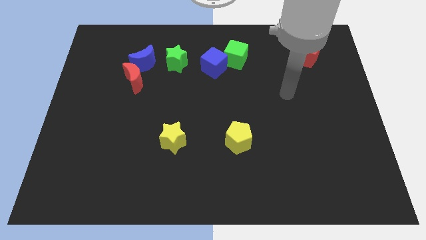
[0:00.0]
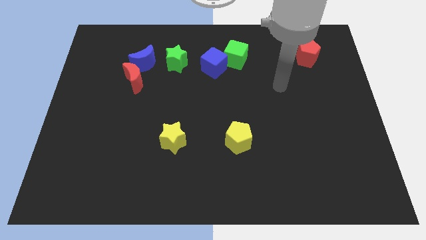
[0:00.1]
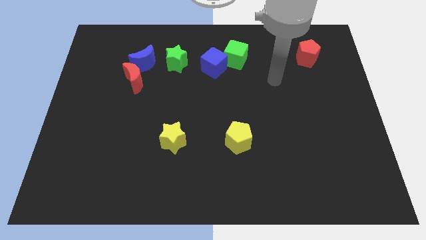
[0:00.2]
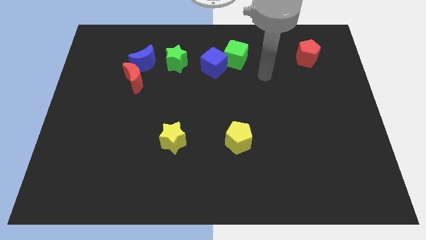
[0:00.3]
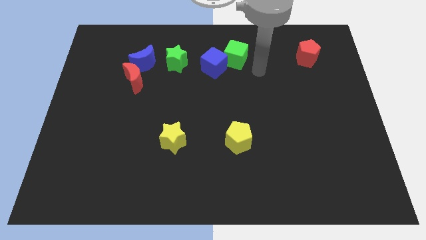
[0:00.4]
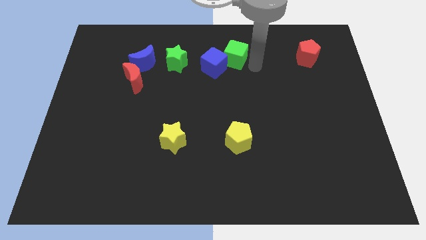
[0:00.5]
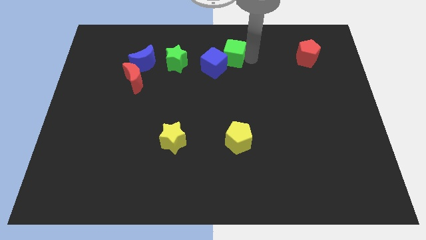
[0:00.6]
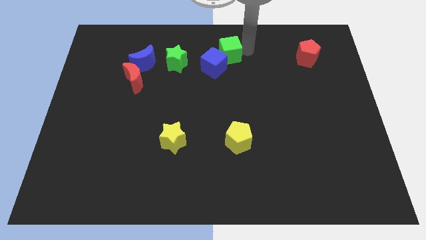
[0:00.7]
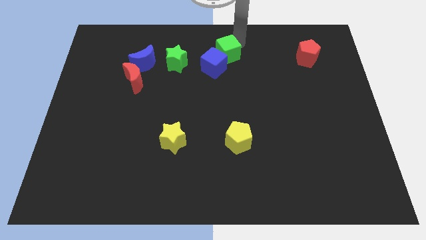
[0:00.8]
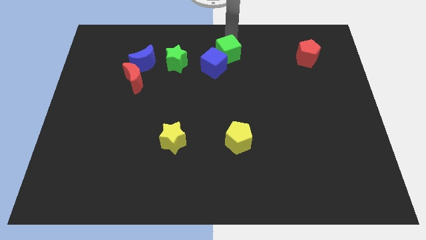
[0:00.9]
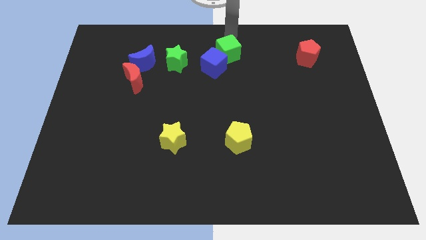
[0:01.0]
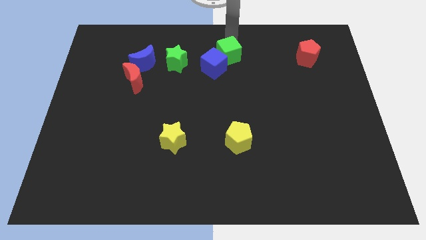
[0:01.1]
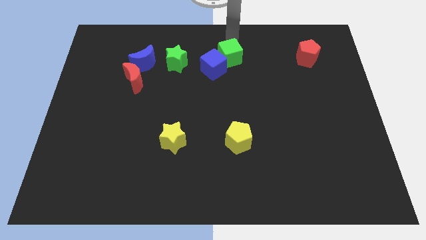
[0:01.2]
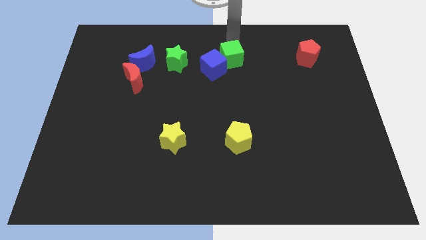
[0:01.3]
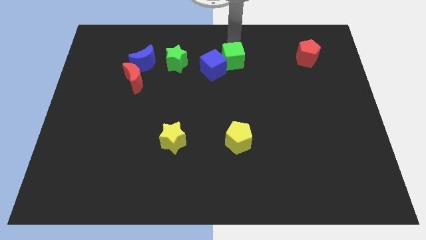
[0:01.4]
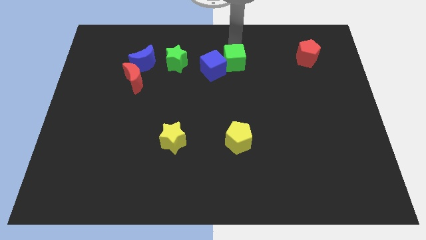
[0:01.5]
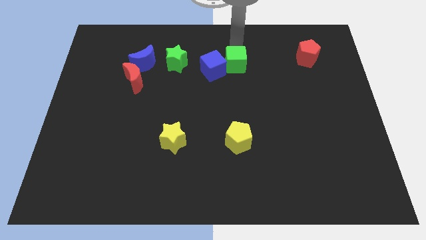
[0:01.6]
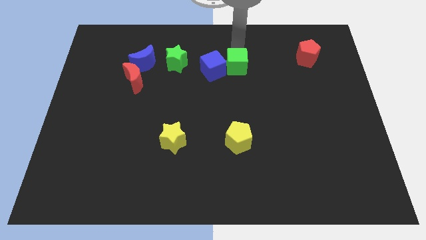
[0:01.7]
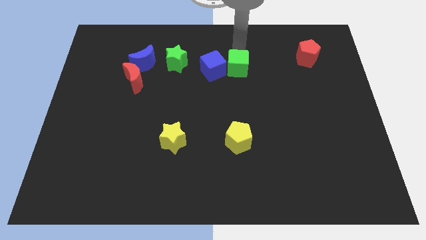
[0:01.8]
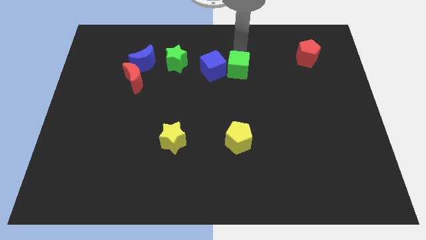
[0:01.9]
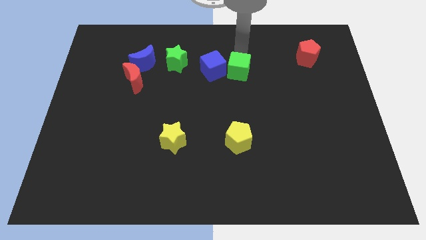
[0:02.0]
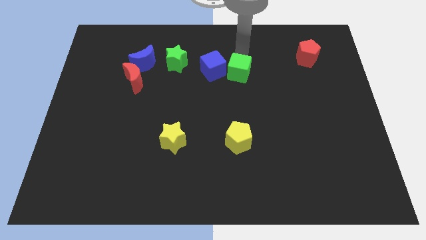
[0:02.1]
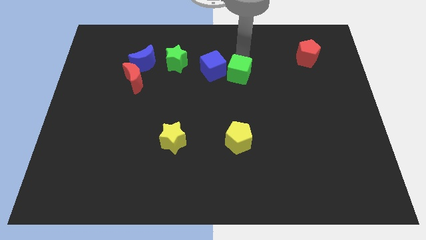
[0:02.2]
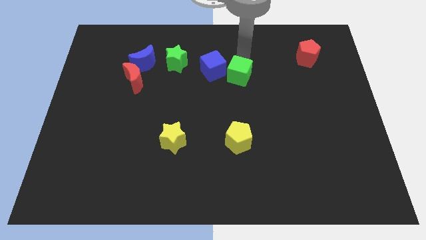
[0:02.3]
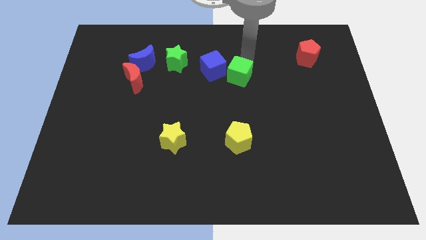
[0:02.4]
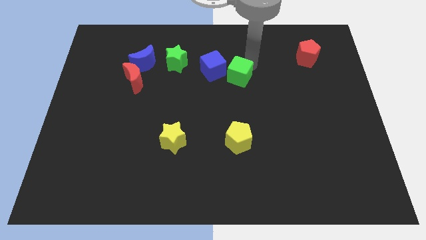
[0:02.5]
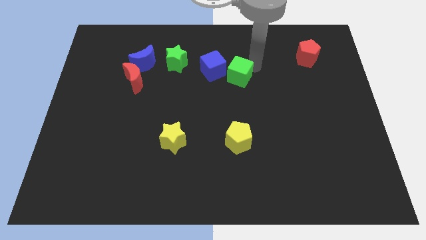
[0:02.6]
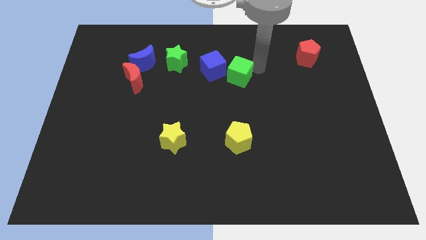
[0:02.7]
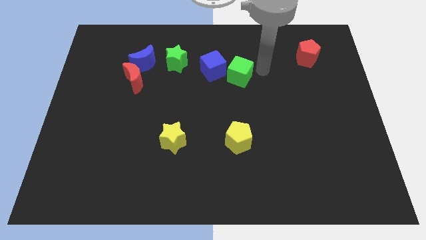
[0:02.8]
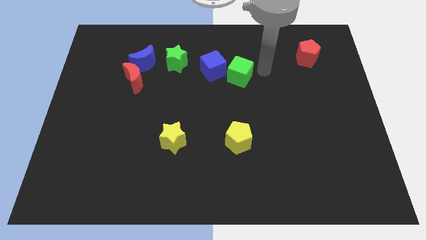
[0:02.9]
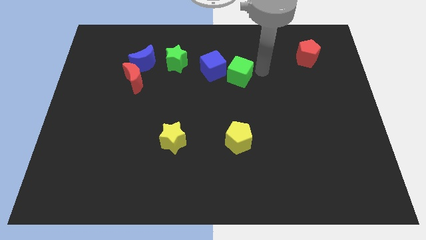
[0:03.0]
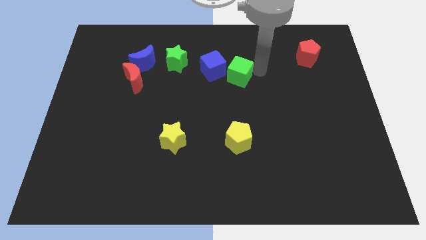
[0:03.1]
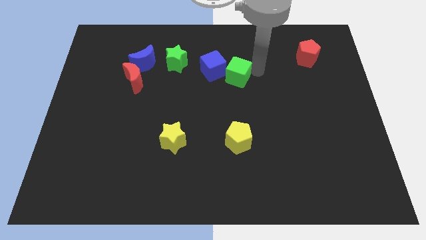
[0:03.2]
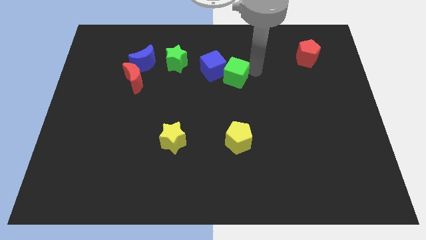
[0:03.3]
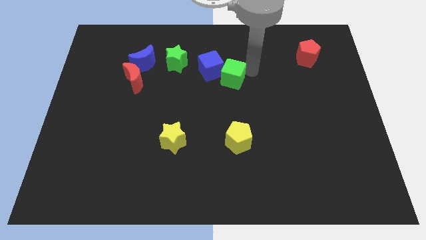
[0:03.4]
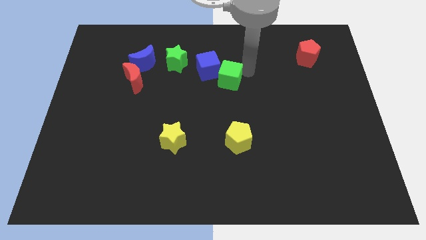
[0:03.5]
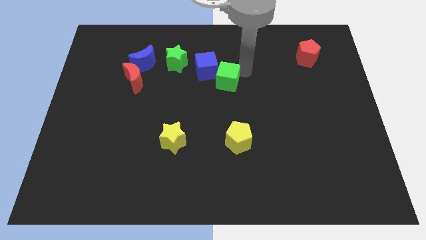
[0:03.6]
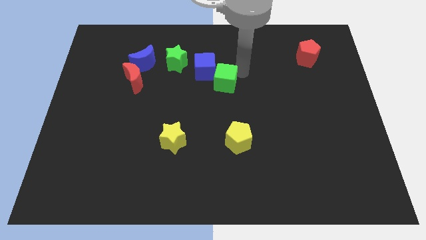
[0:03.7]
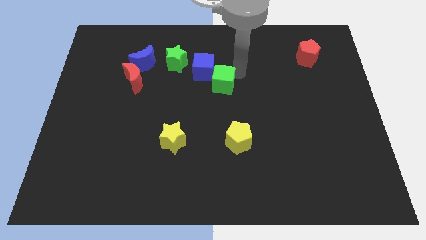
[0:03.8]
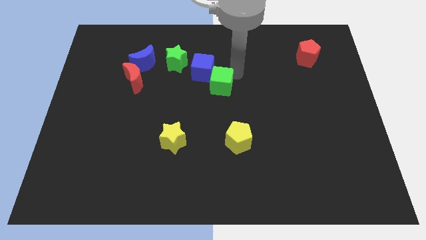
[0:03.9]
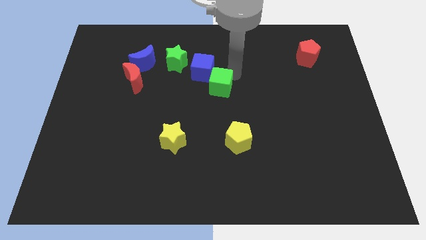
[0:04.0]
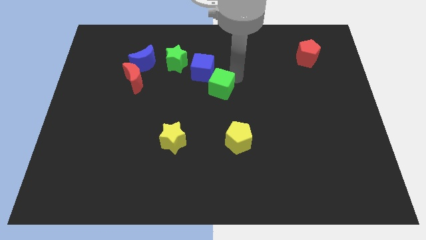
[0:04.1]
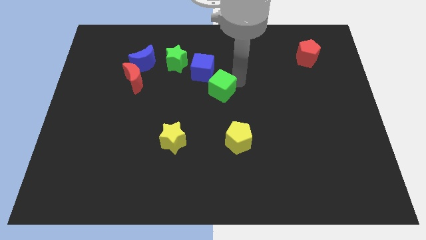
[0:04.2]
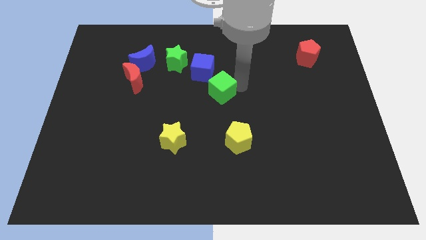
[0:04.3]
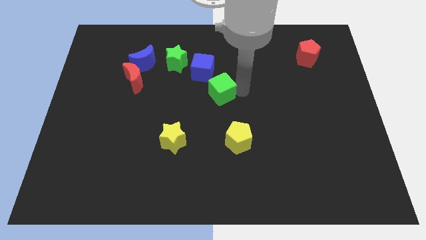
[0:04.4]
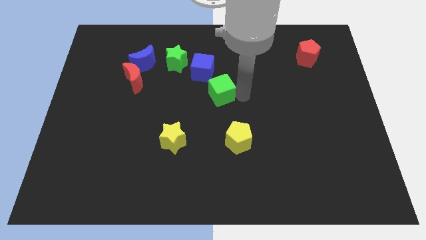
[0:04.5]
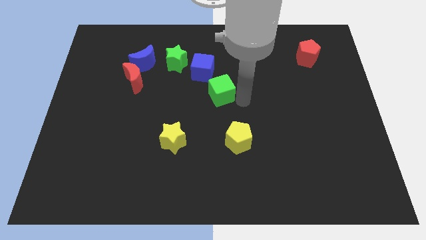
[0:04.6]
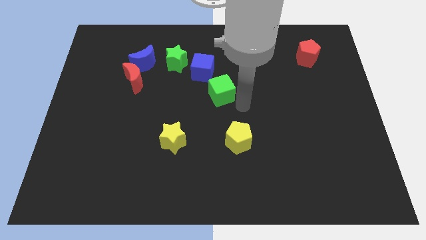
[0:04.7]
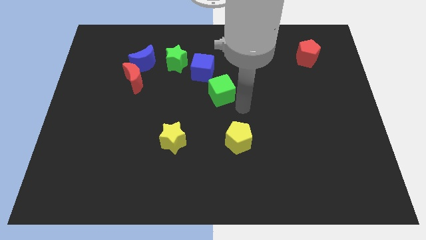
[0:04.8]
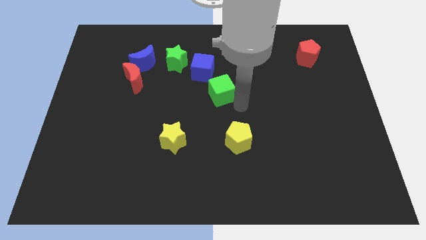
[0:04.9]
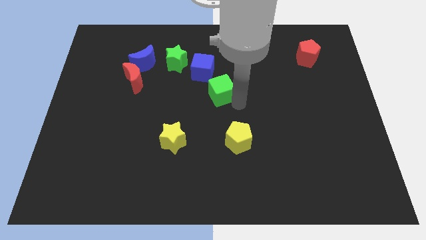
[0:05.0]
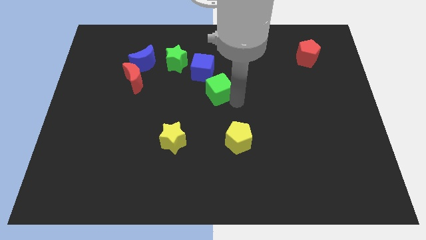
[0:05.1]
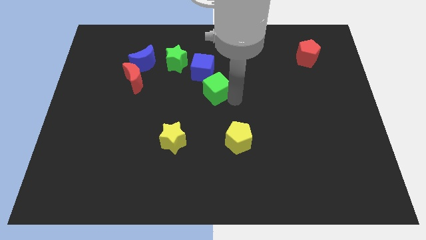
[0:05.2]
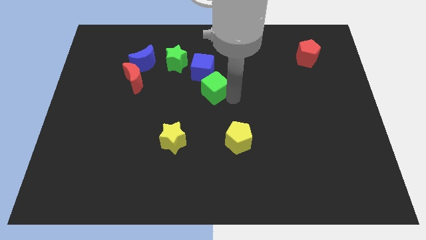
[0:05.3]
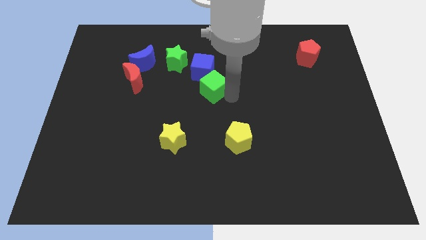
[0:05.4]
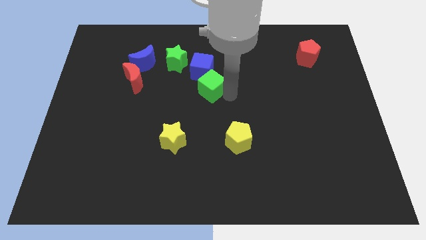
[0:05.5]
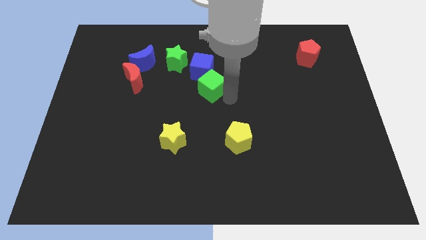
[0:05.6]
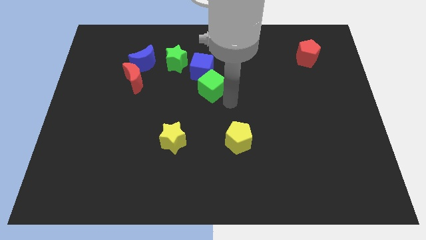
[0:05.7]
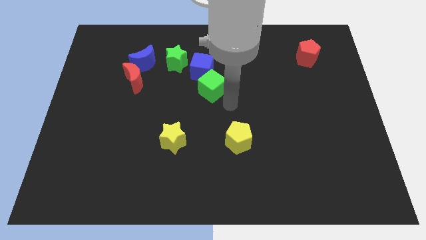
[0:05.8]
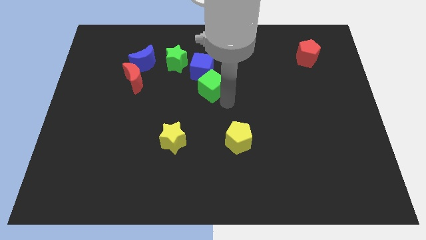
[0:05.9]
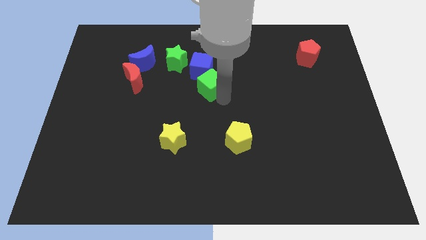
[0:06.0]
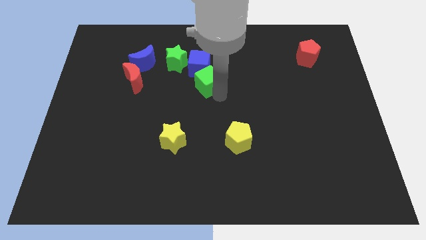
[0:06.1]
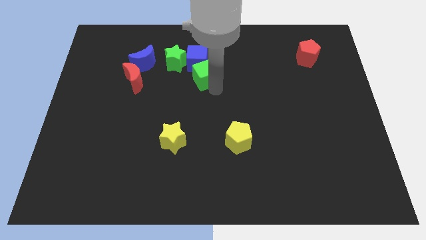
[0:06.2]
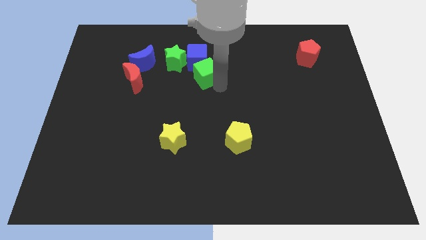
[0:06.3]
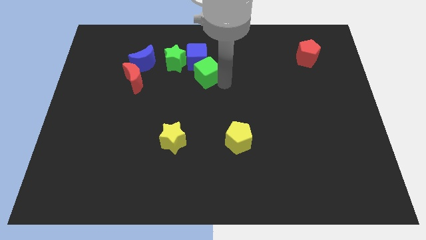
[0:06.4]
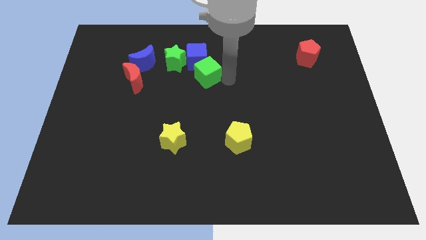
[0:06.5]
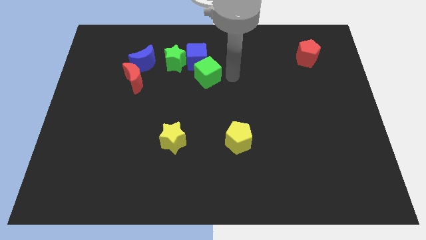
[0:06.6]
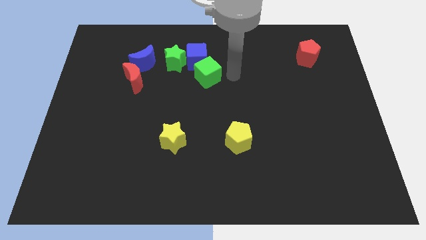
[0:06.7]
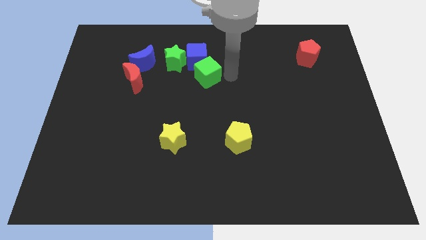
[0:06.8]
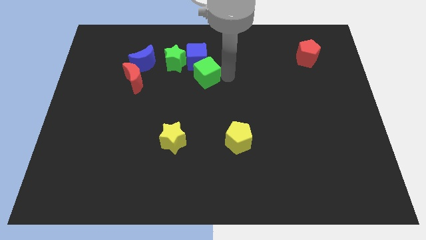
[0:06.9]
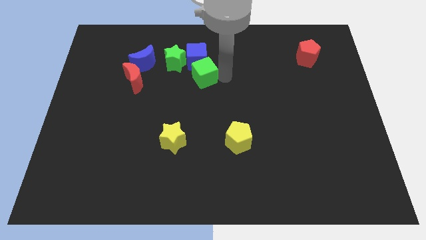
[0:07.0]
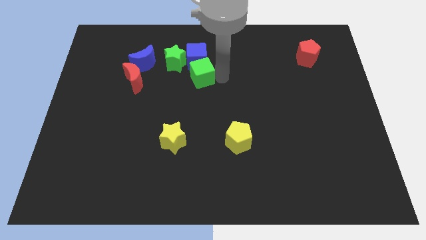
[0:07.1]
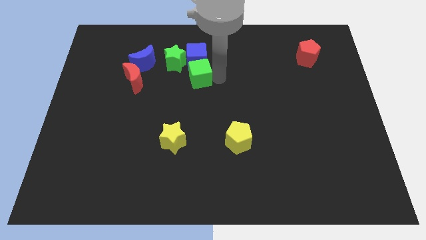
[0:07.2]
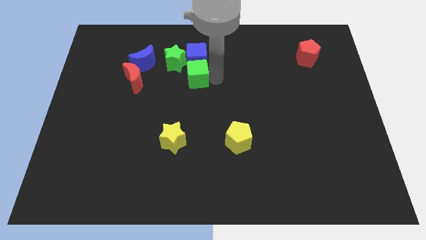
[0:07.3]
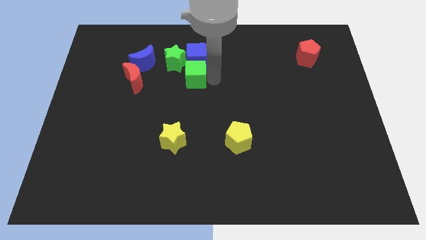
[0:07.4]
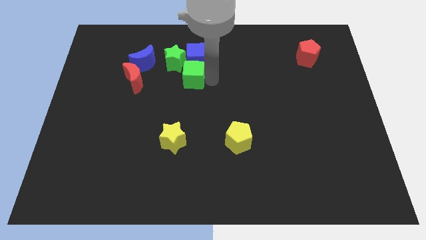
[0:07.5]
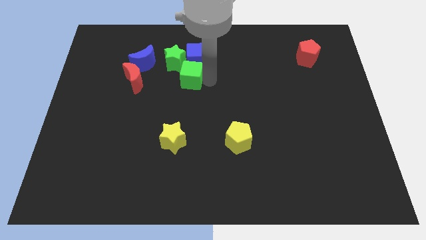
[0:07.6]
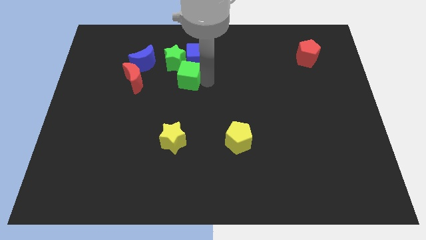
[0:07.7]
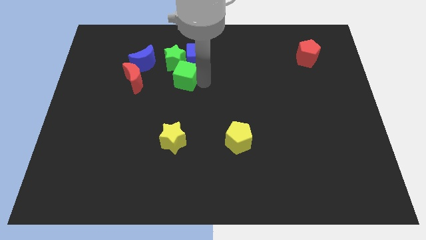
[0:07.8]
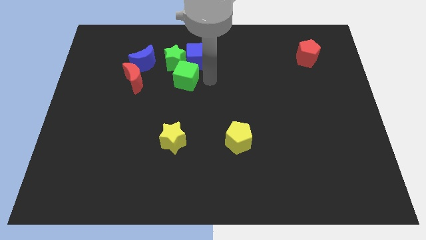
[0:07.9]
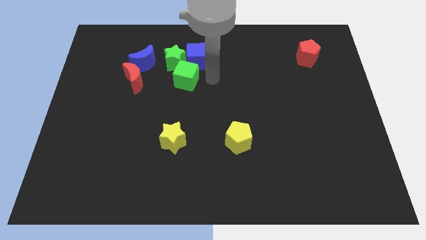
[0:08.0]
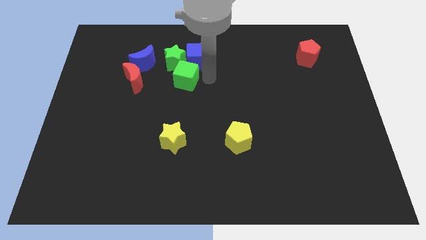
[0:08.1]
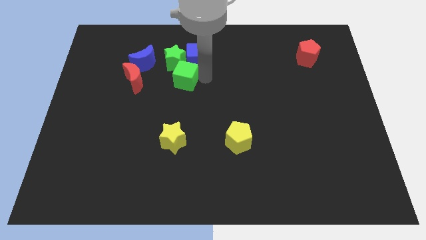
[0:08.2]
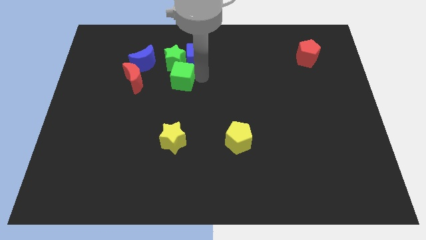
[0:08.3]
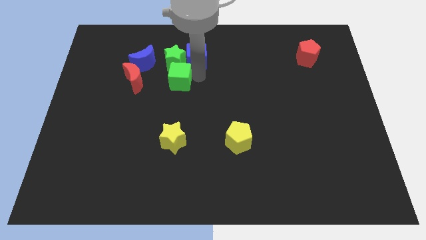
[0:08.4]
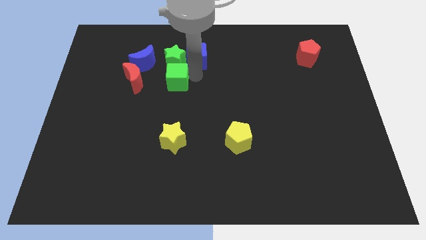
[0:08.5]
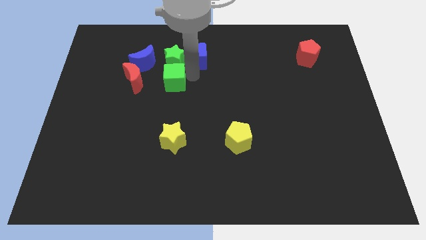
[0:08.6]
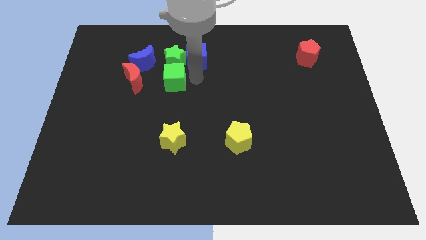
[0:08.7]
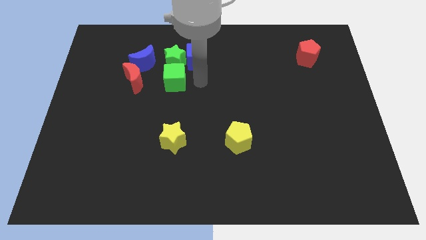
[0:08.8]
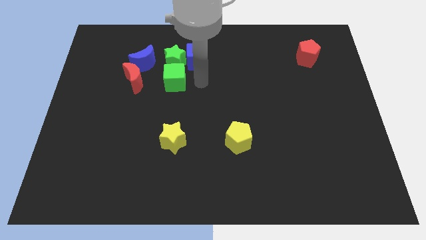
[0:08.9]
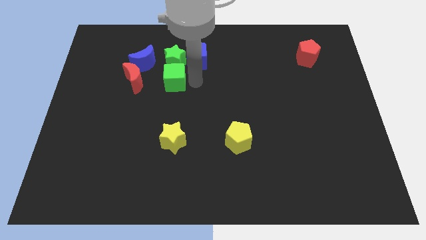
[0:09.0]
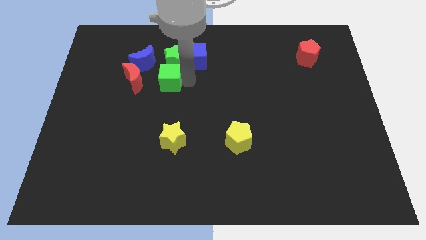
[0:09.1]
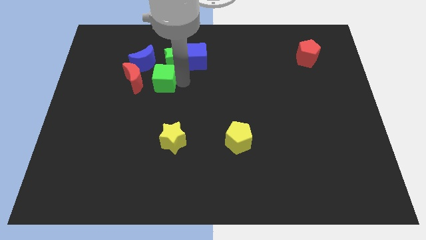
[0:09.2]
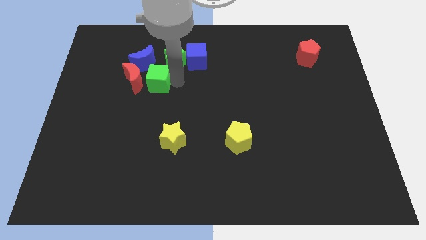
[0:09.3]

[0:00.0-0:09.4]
put the green cube close to the red moon
